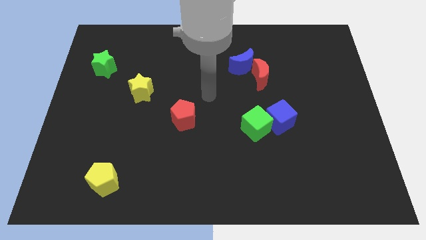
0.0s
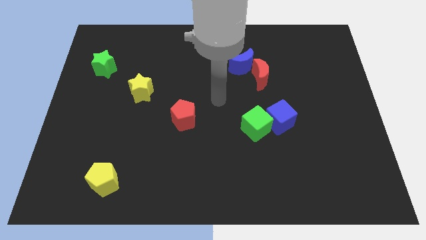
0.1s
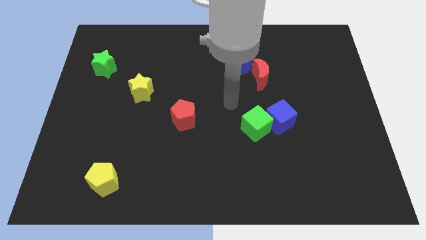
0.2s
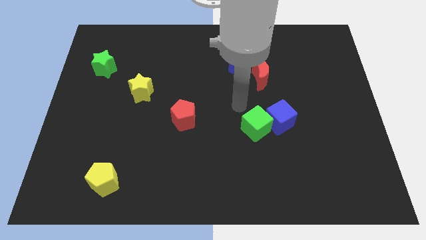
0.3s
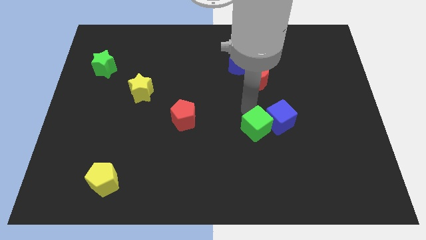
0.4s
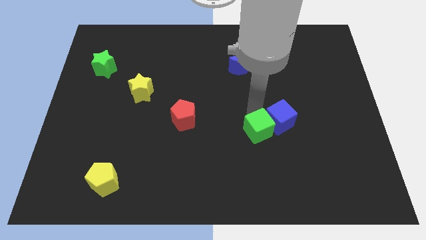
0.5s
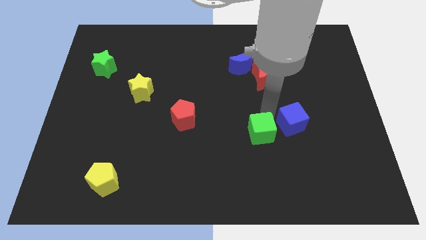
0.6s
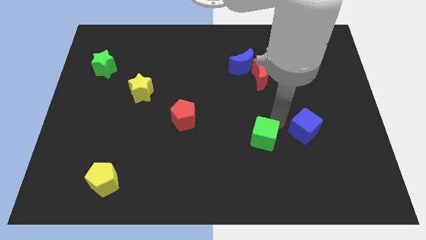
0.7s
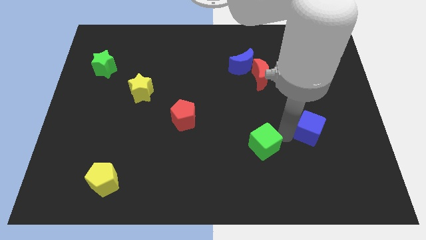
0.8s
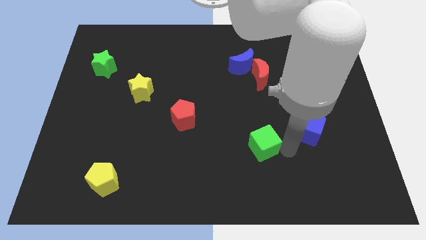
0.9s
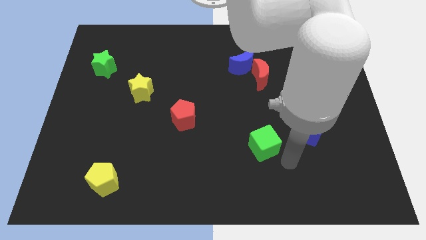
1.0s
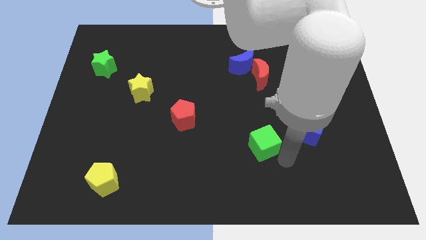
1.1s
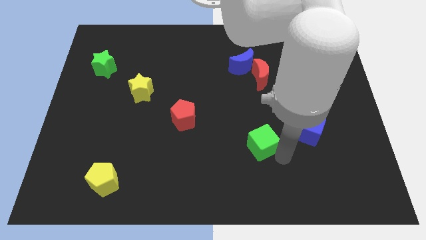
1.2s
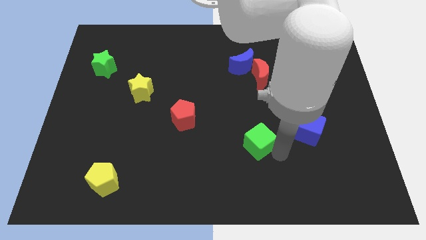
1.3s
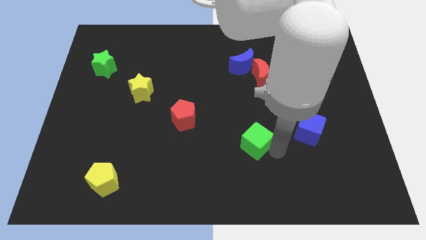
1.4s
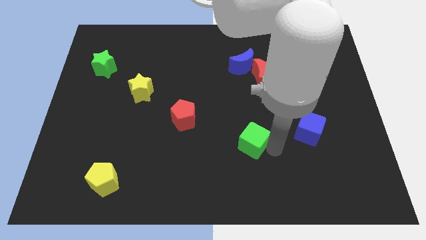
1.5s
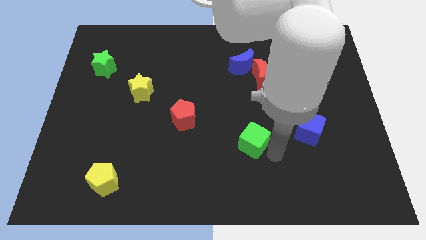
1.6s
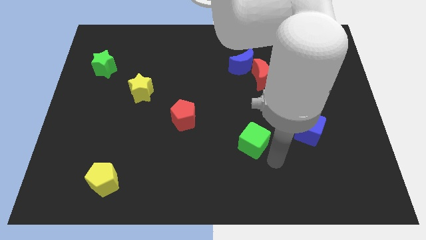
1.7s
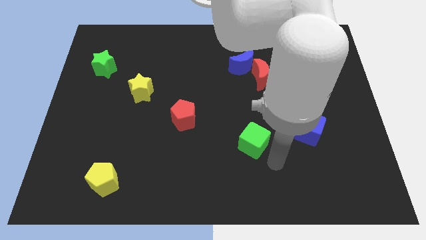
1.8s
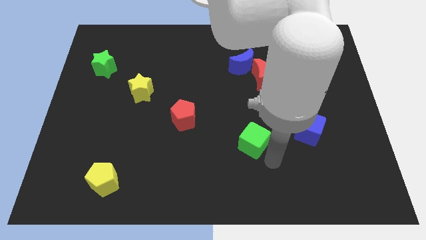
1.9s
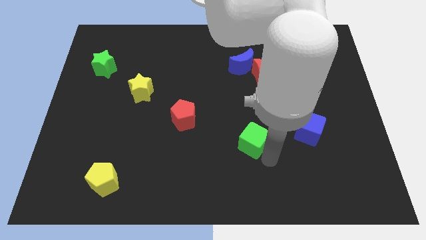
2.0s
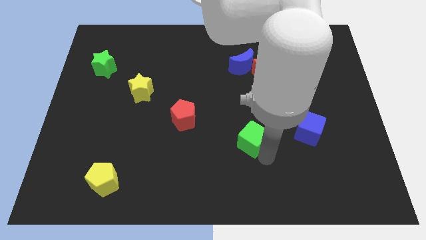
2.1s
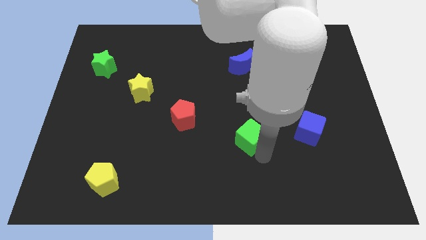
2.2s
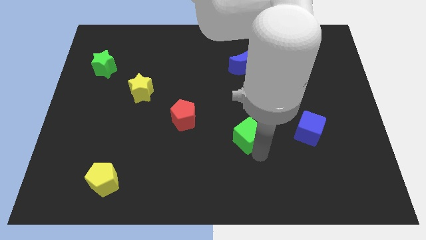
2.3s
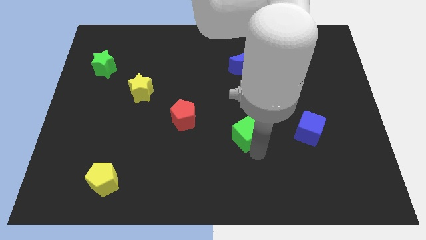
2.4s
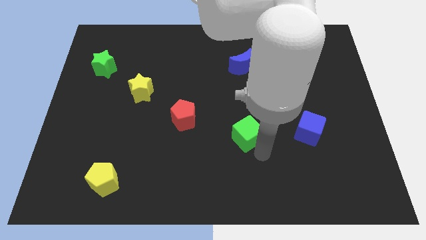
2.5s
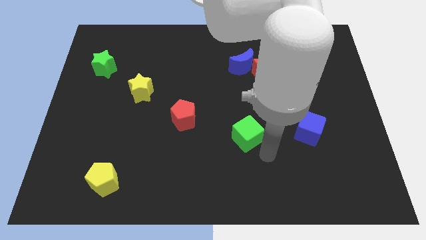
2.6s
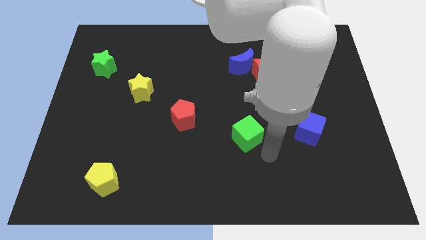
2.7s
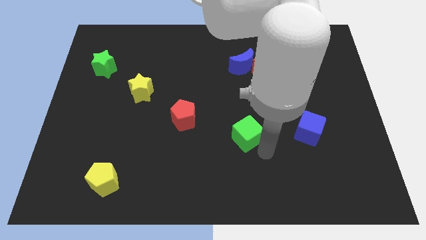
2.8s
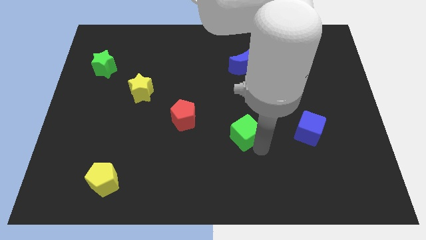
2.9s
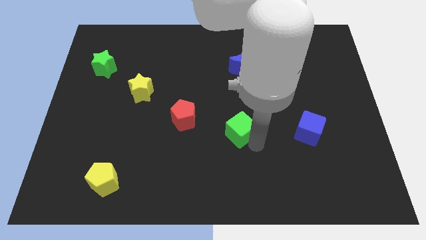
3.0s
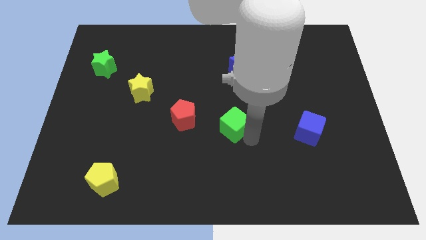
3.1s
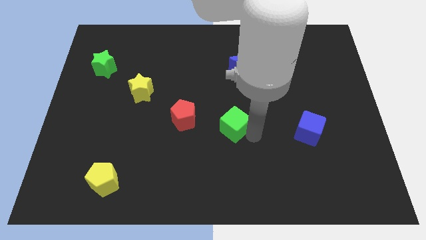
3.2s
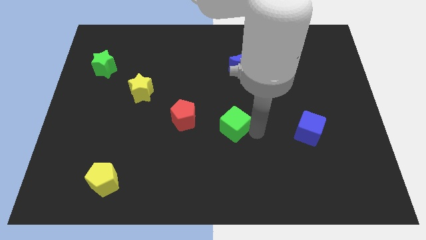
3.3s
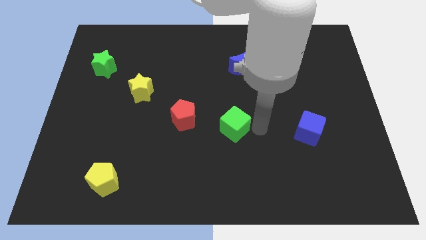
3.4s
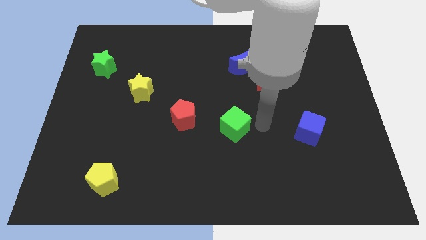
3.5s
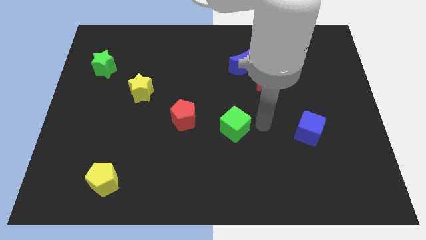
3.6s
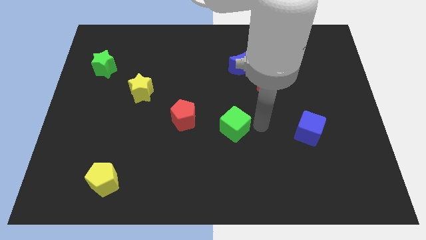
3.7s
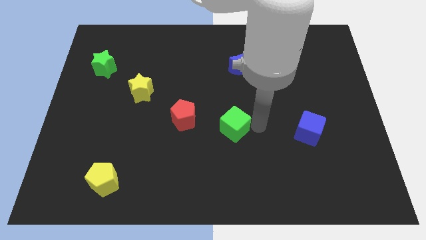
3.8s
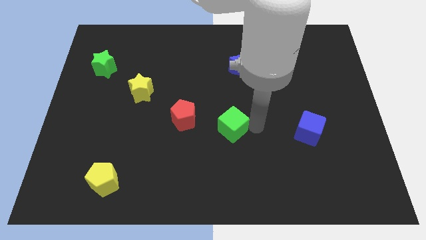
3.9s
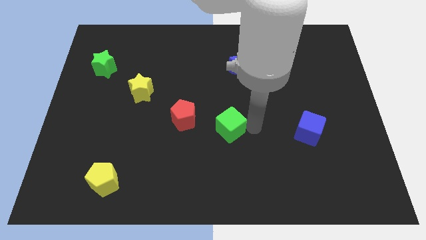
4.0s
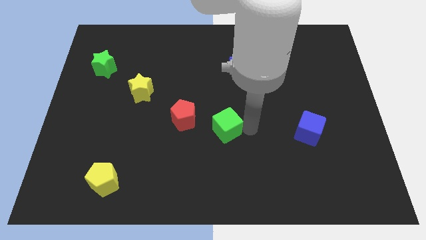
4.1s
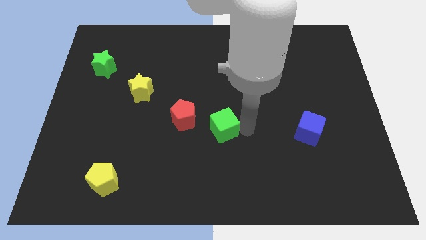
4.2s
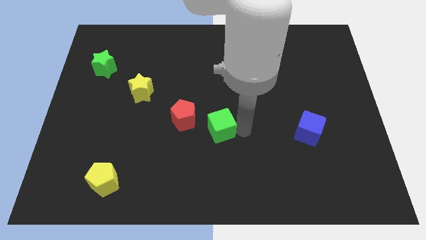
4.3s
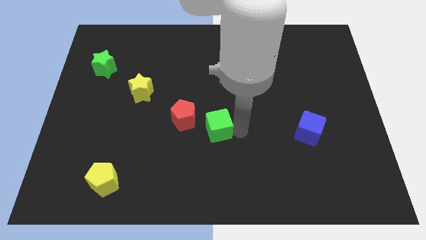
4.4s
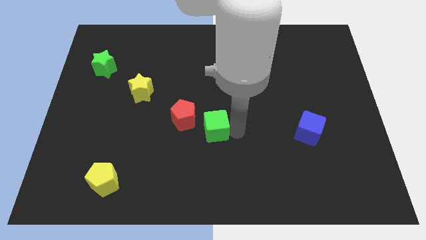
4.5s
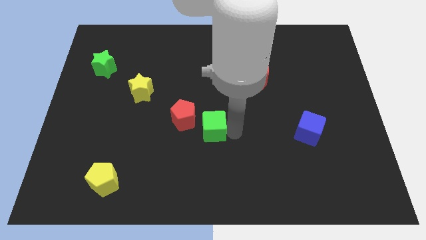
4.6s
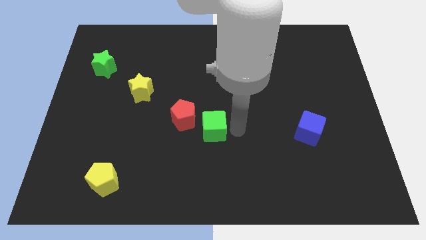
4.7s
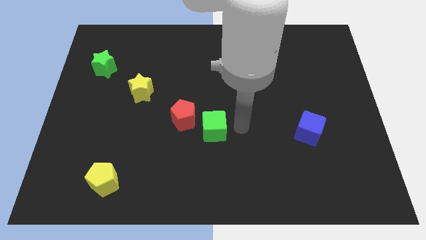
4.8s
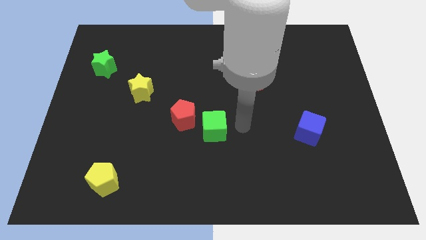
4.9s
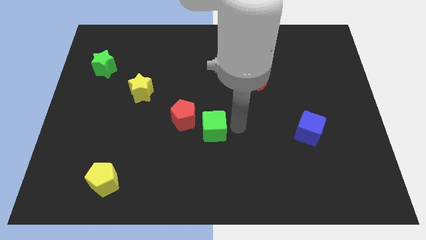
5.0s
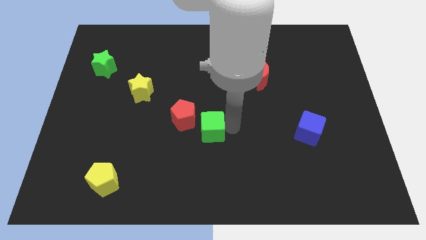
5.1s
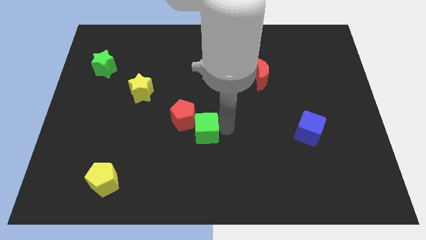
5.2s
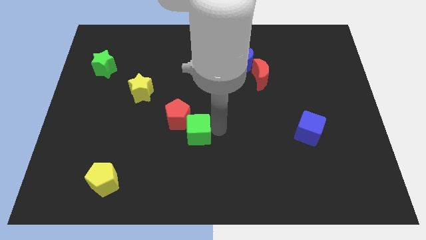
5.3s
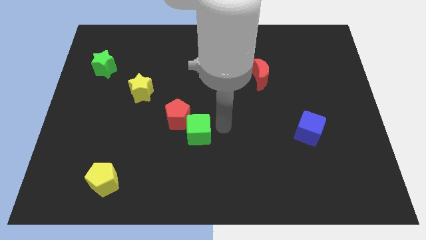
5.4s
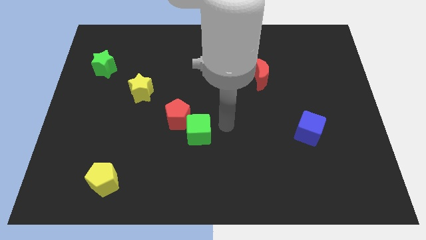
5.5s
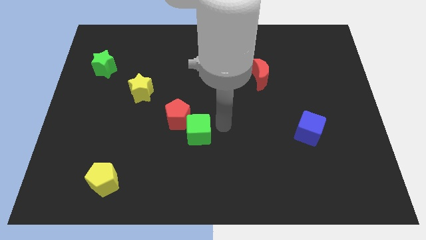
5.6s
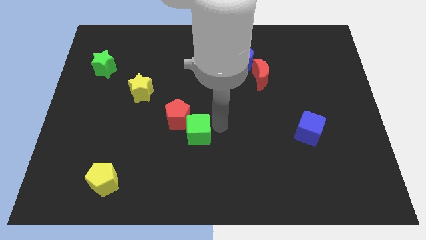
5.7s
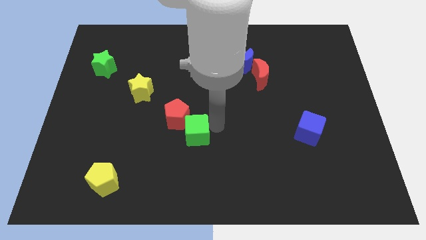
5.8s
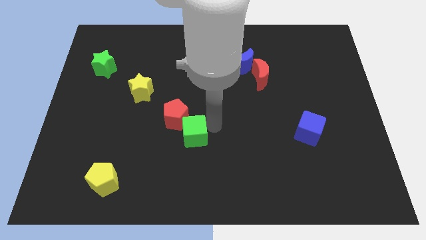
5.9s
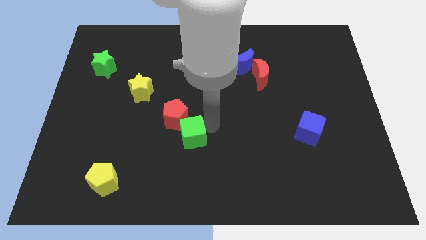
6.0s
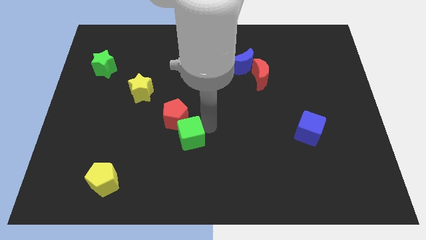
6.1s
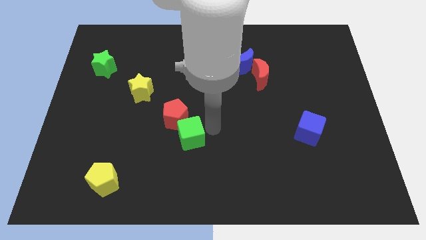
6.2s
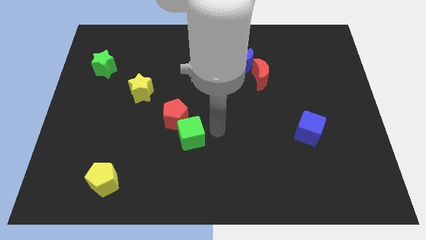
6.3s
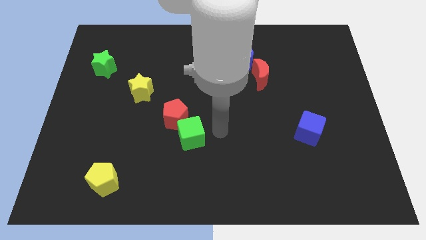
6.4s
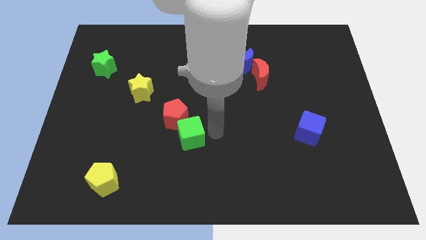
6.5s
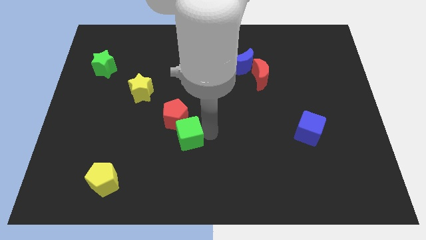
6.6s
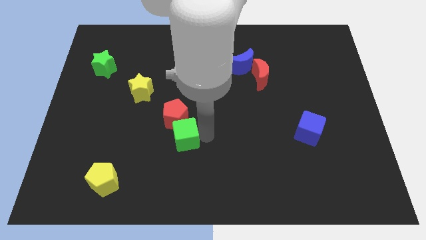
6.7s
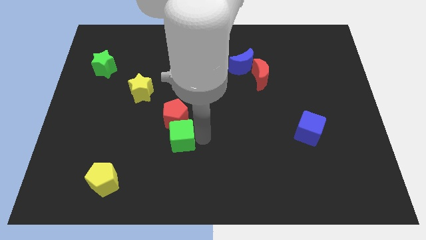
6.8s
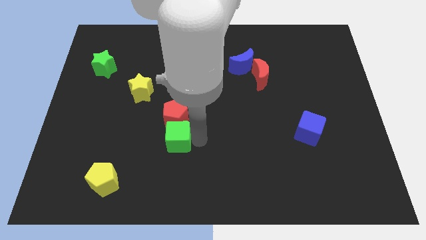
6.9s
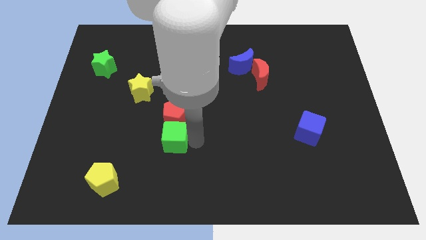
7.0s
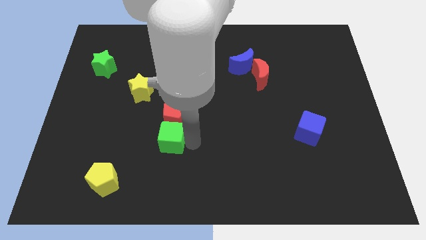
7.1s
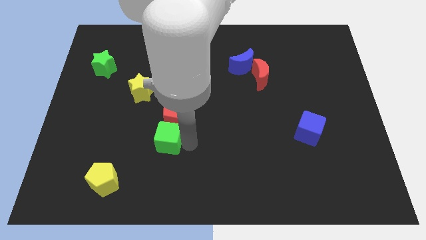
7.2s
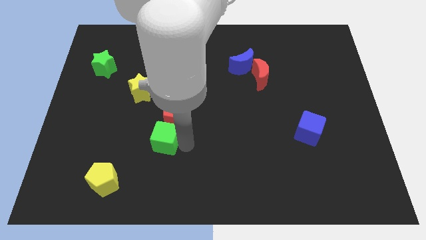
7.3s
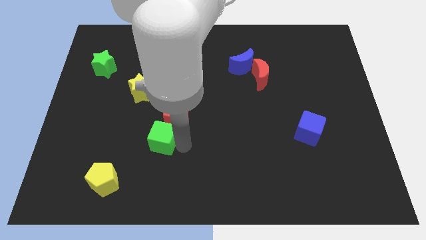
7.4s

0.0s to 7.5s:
move the green cube to the left

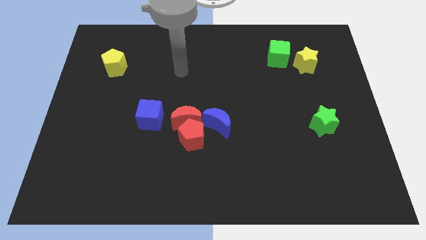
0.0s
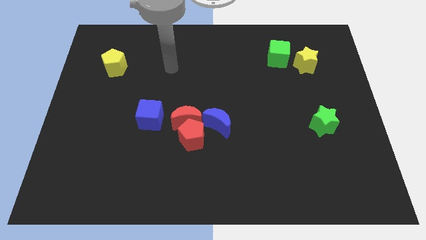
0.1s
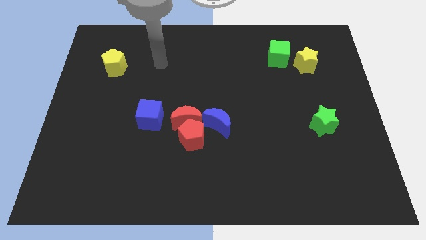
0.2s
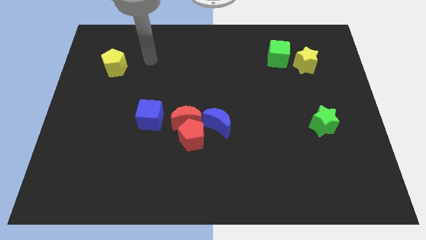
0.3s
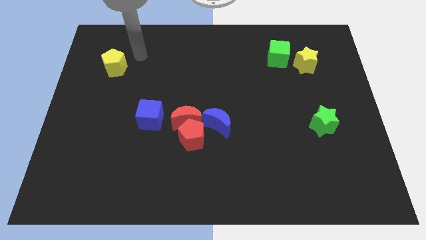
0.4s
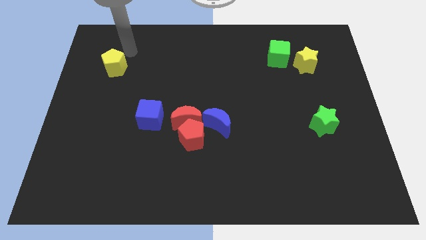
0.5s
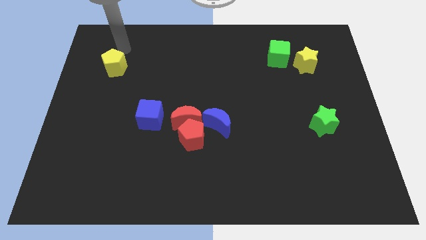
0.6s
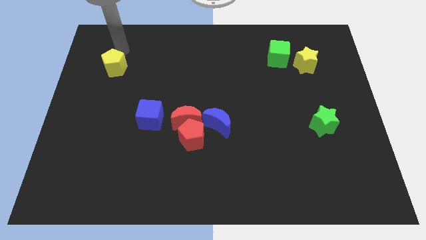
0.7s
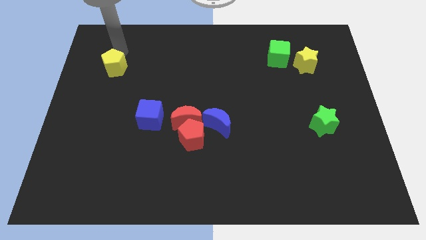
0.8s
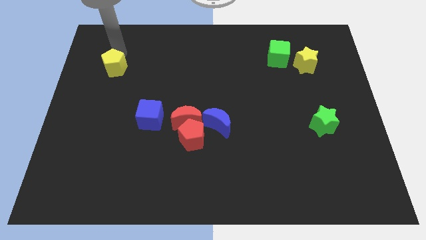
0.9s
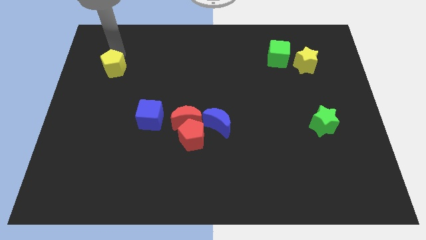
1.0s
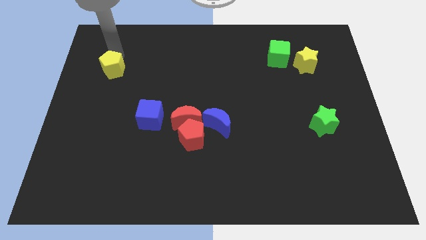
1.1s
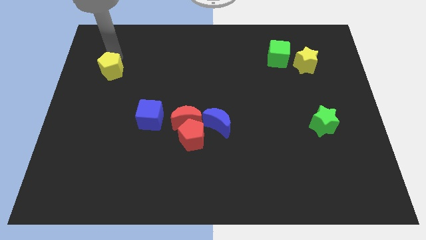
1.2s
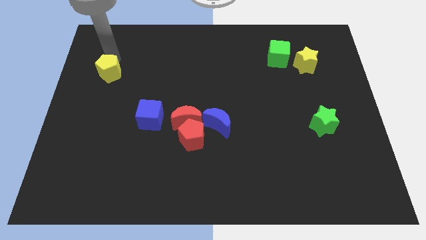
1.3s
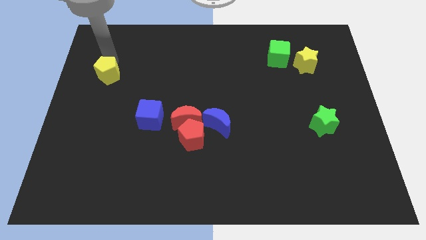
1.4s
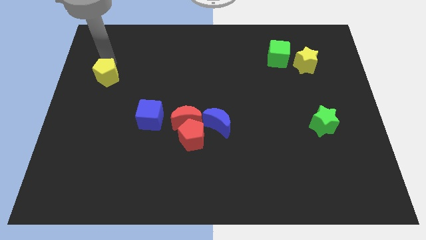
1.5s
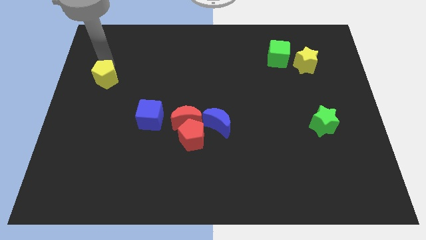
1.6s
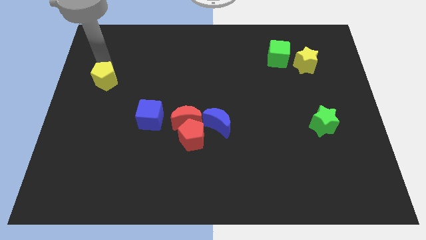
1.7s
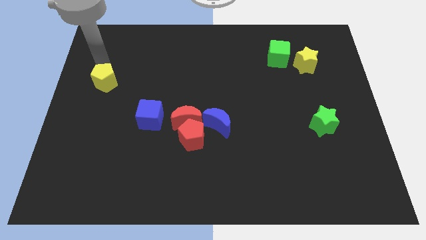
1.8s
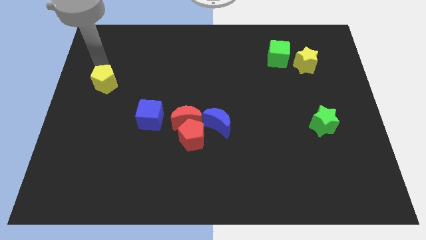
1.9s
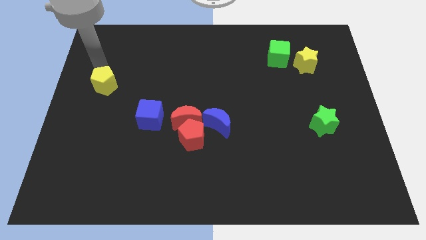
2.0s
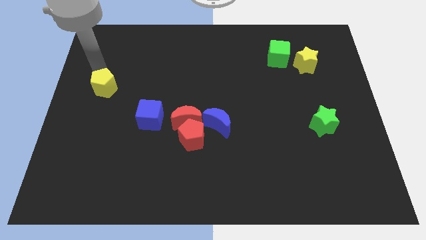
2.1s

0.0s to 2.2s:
slide the yellow pentagon slightly down
